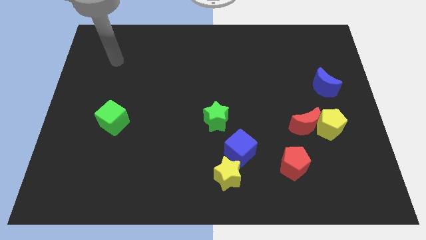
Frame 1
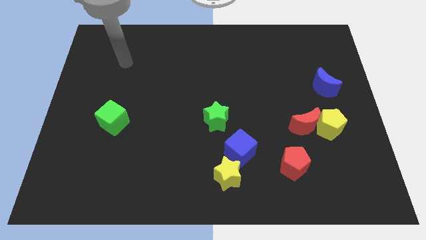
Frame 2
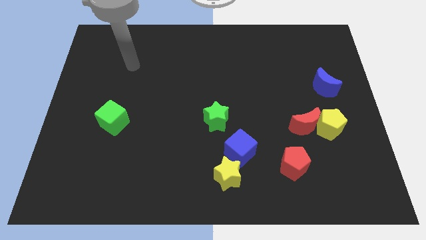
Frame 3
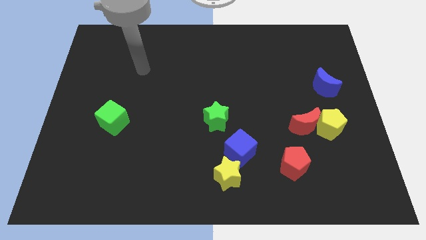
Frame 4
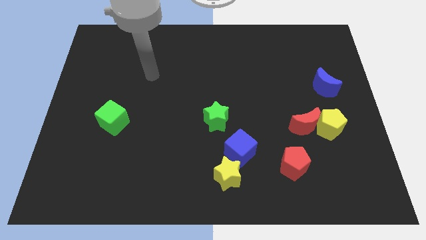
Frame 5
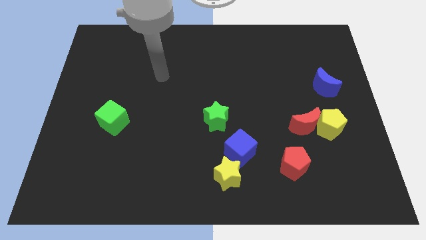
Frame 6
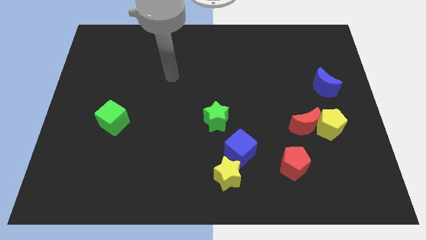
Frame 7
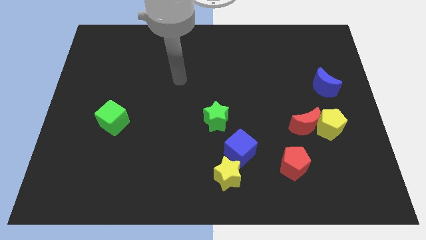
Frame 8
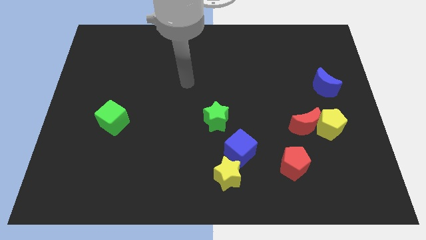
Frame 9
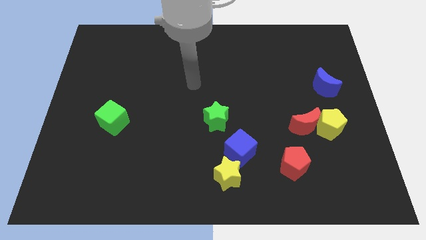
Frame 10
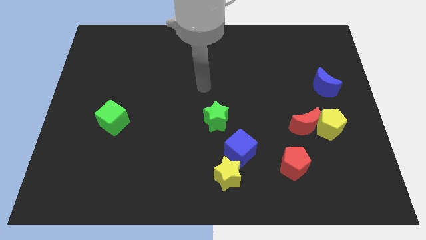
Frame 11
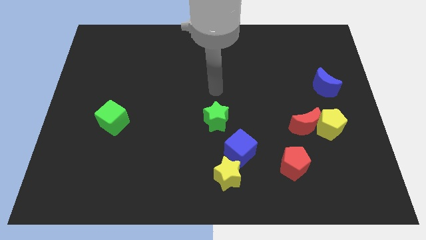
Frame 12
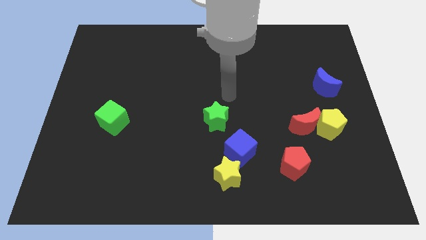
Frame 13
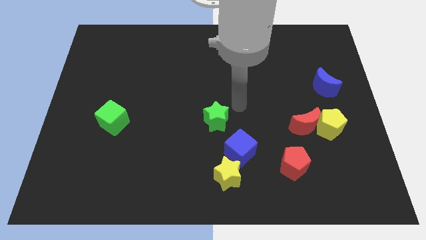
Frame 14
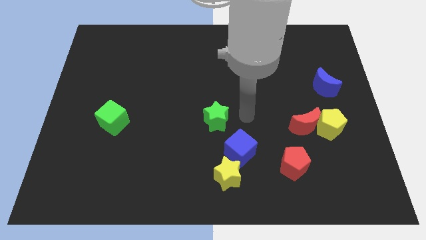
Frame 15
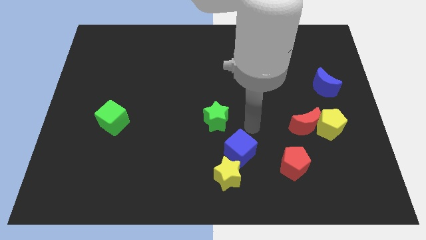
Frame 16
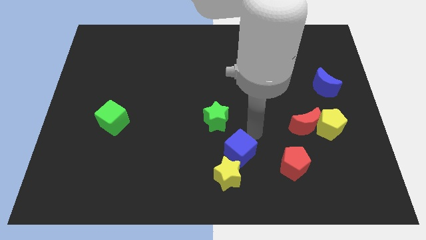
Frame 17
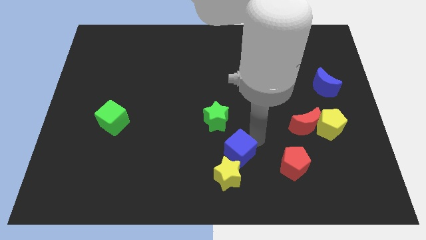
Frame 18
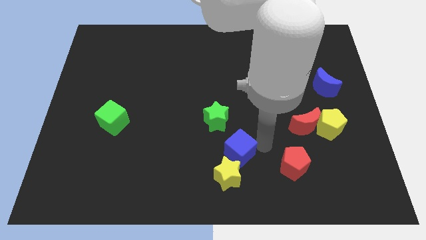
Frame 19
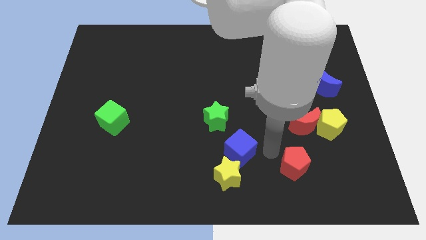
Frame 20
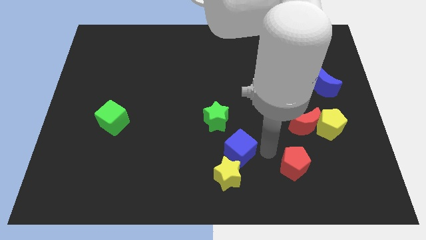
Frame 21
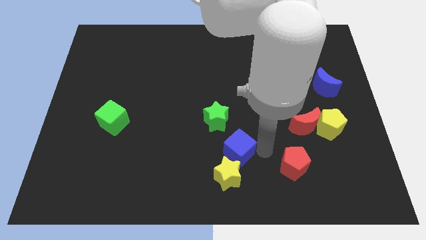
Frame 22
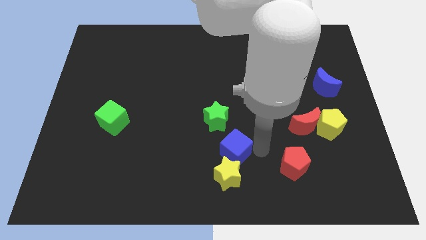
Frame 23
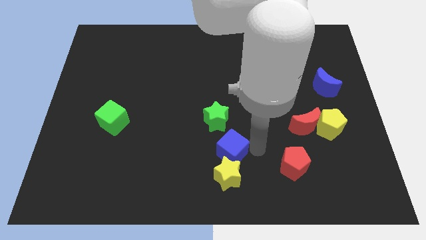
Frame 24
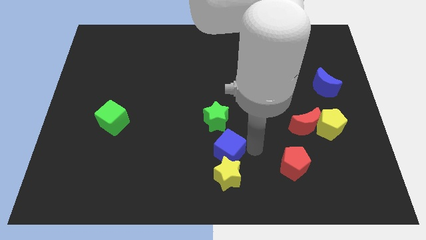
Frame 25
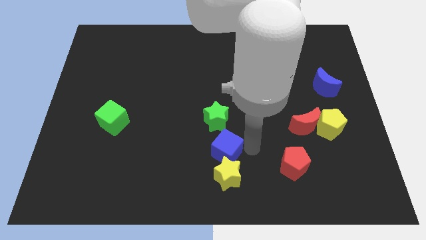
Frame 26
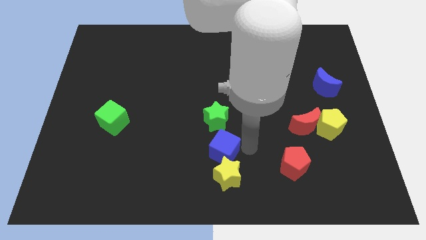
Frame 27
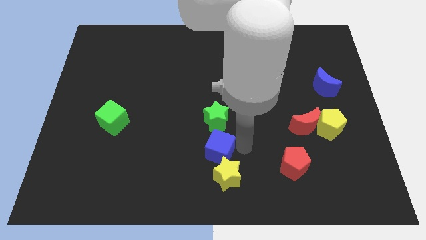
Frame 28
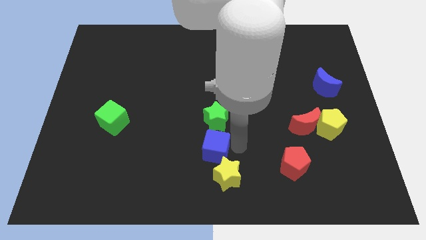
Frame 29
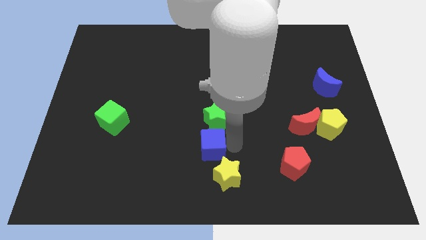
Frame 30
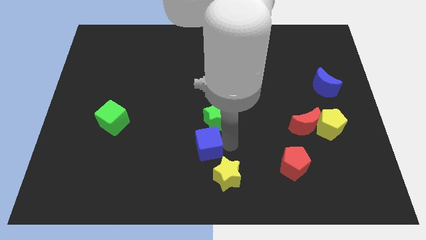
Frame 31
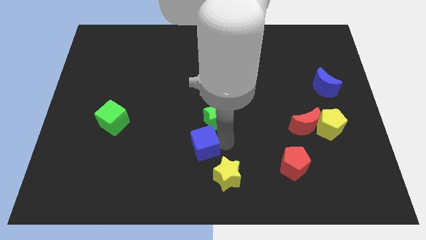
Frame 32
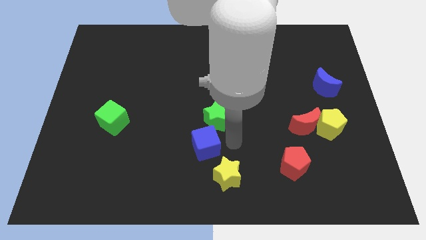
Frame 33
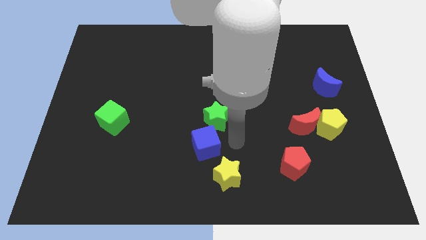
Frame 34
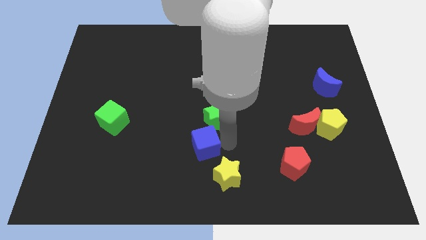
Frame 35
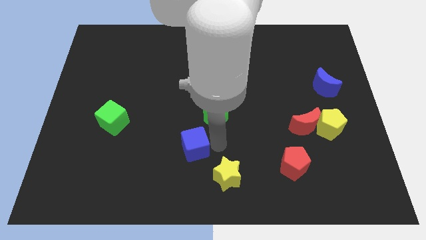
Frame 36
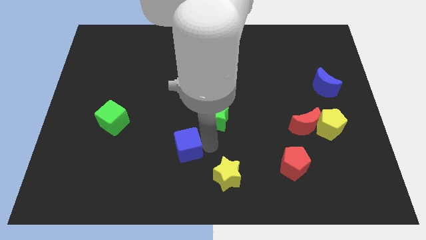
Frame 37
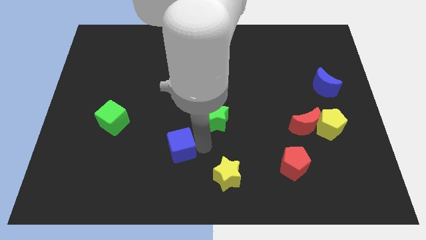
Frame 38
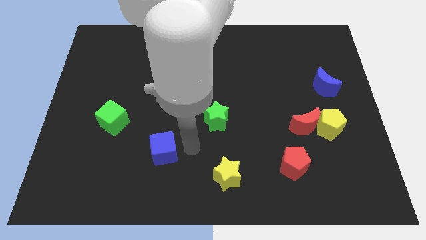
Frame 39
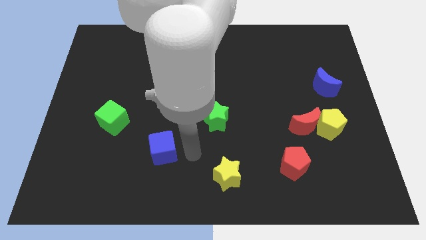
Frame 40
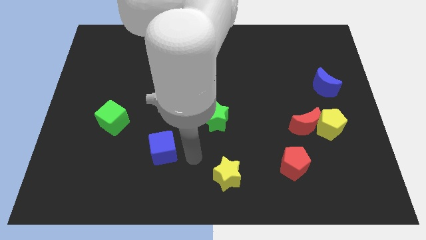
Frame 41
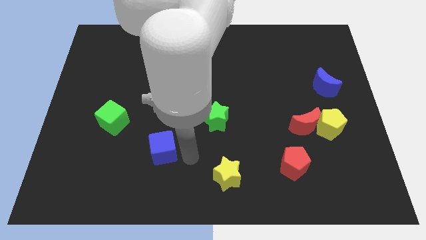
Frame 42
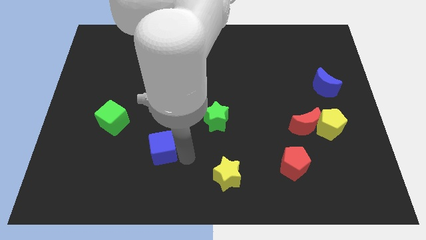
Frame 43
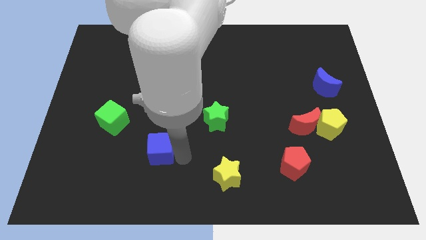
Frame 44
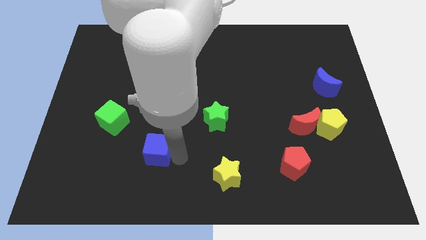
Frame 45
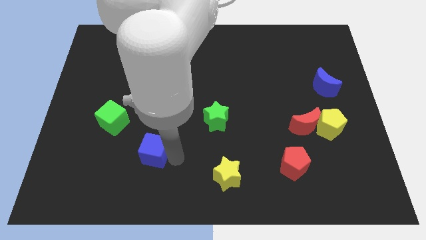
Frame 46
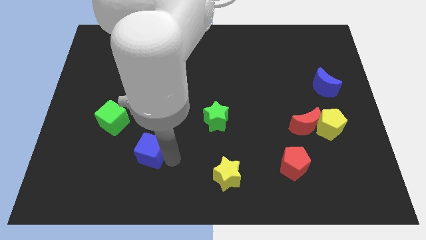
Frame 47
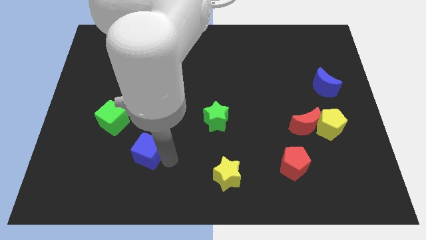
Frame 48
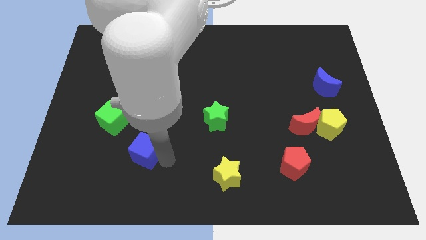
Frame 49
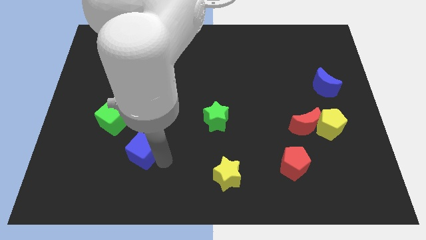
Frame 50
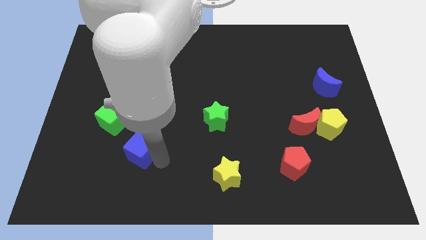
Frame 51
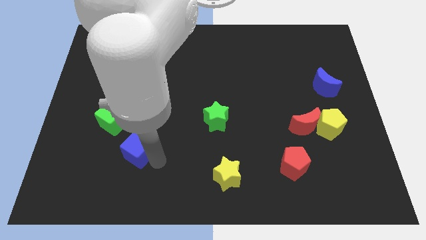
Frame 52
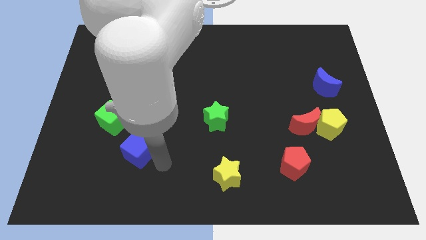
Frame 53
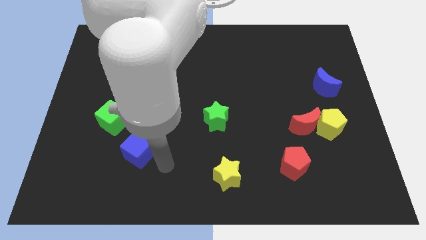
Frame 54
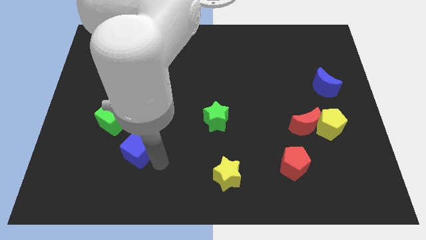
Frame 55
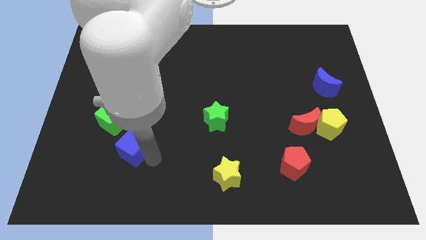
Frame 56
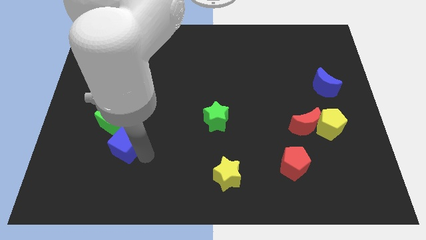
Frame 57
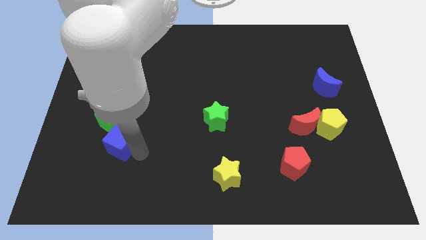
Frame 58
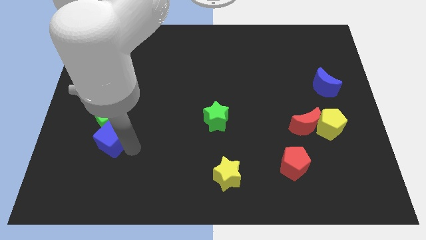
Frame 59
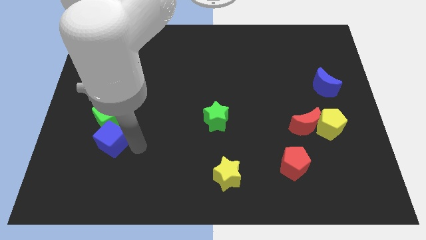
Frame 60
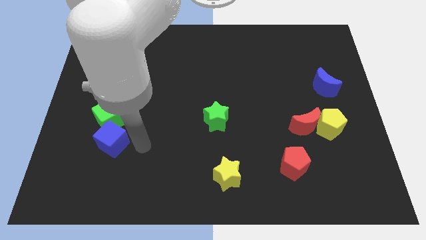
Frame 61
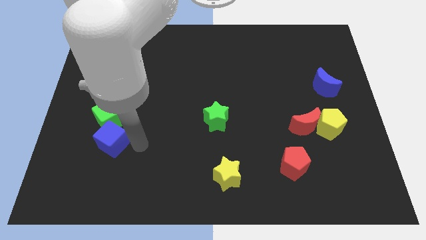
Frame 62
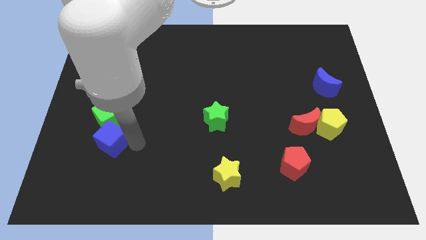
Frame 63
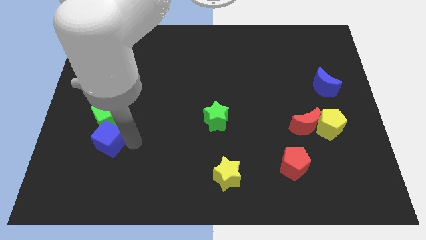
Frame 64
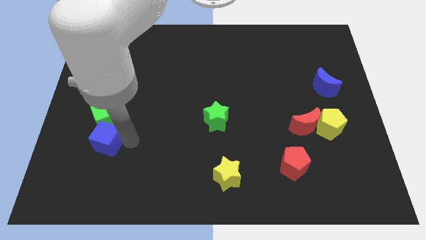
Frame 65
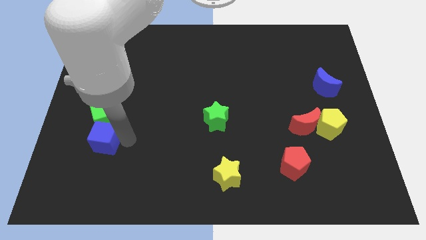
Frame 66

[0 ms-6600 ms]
push the blue cube to the bottom left side of the green cube

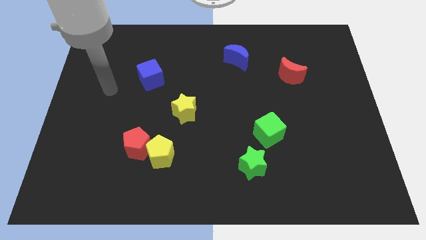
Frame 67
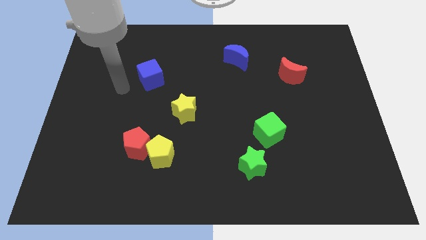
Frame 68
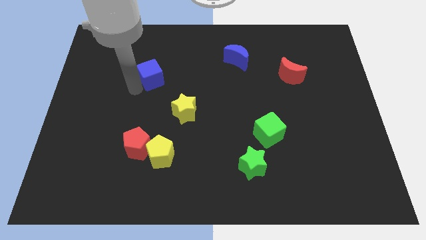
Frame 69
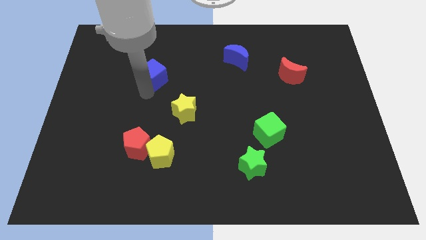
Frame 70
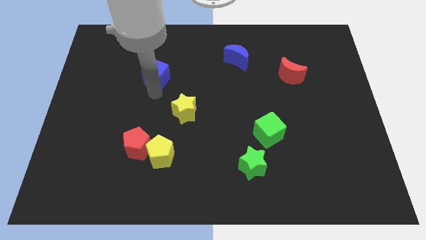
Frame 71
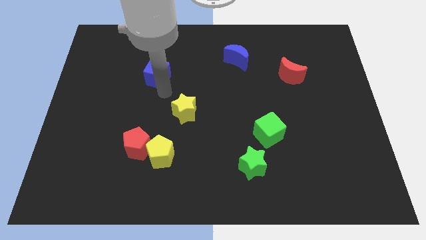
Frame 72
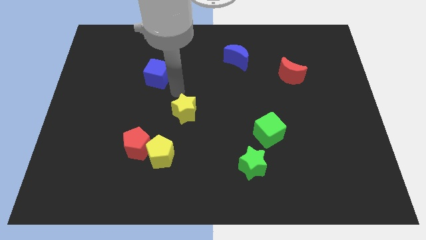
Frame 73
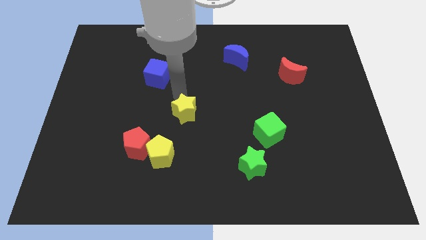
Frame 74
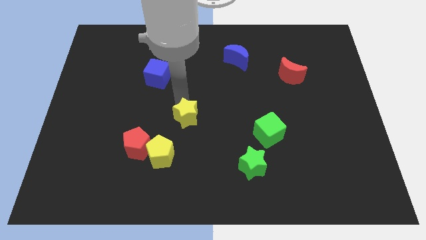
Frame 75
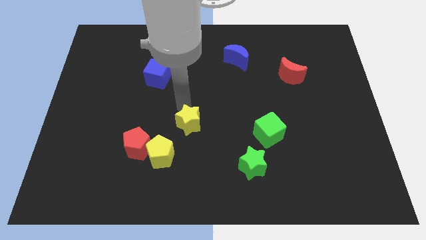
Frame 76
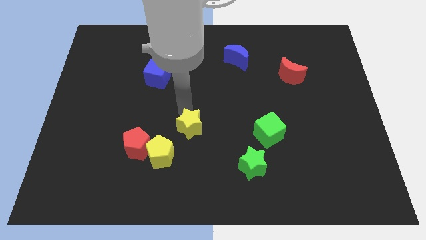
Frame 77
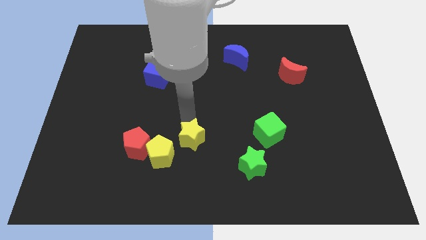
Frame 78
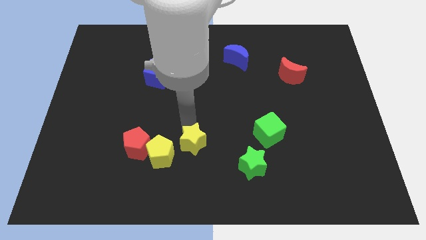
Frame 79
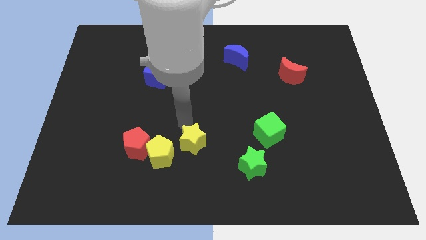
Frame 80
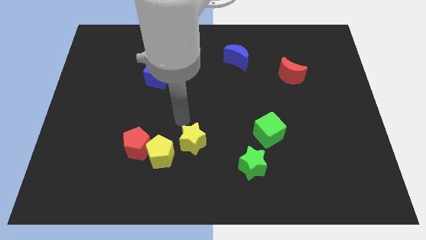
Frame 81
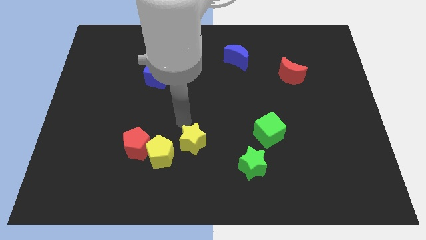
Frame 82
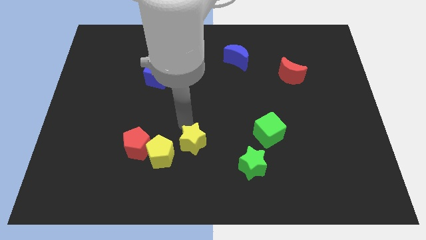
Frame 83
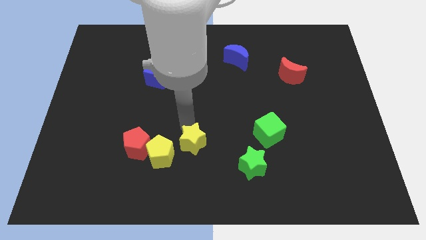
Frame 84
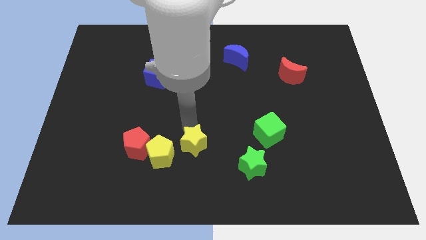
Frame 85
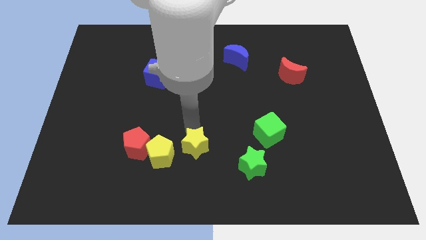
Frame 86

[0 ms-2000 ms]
slide the yellow star to the left side of the green star
